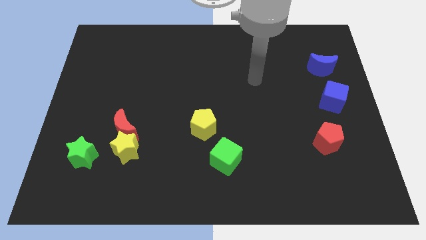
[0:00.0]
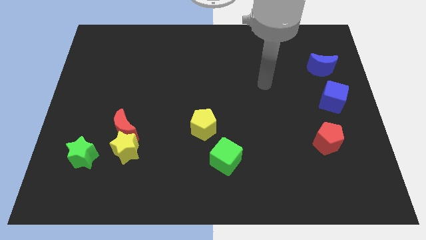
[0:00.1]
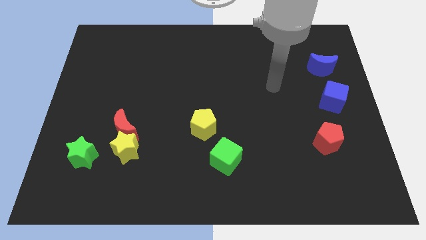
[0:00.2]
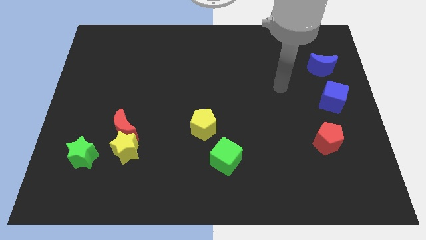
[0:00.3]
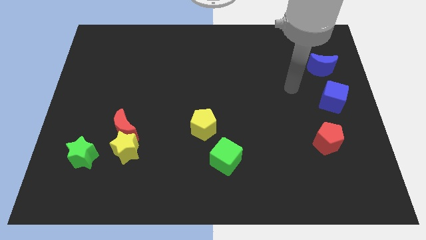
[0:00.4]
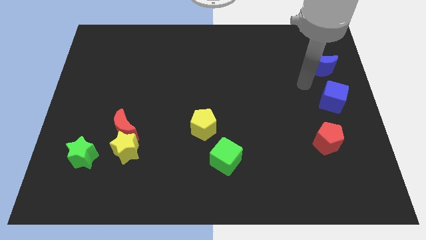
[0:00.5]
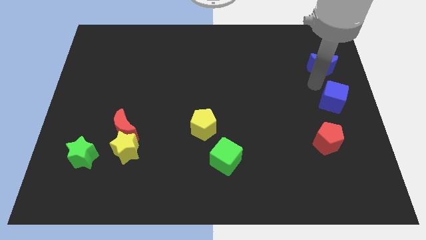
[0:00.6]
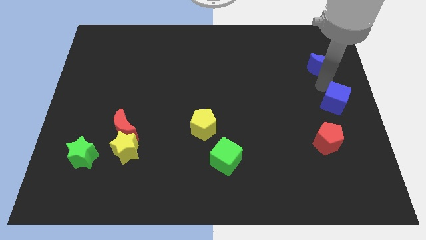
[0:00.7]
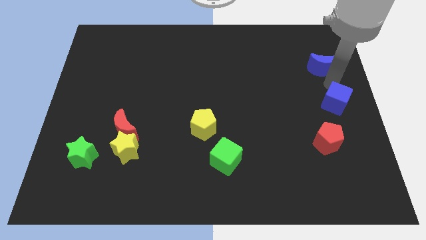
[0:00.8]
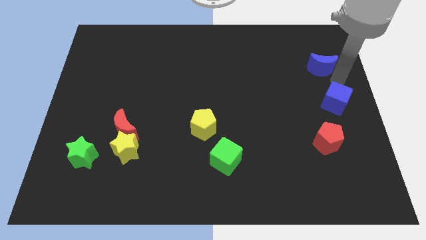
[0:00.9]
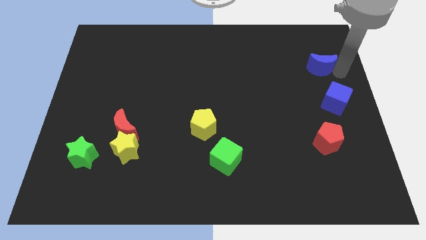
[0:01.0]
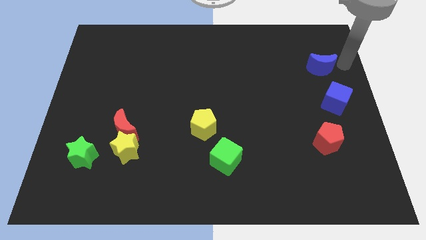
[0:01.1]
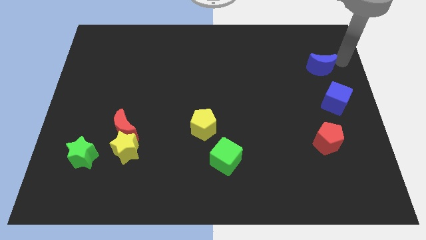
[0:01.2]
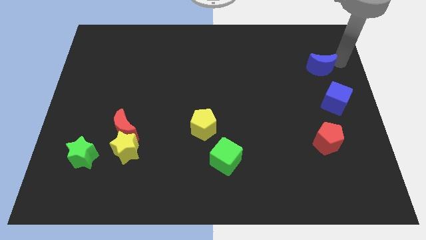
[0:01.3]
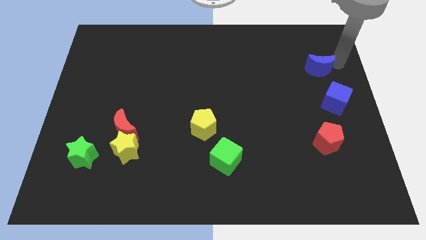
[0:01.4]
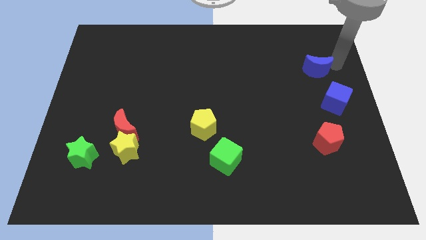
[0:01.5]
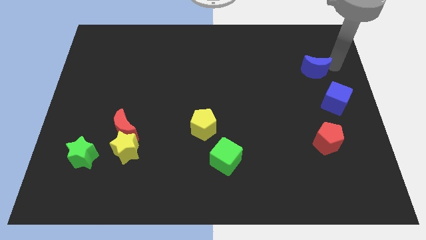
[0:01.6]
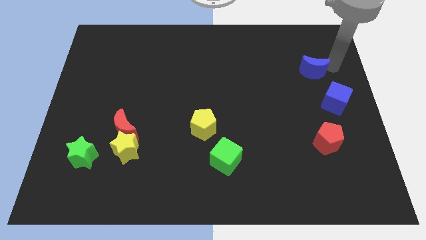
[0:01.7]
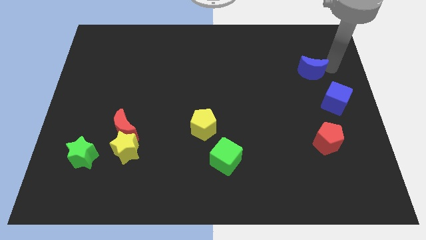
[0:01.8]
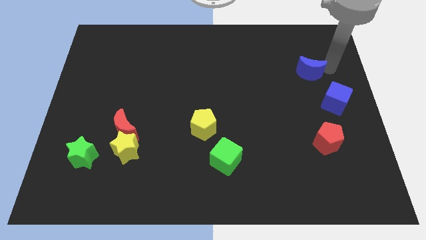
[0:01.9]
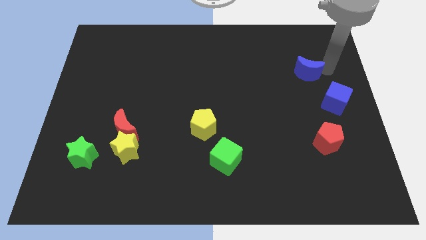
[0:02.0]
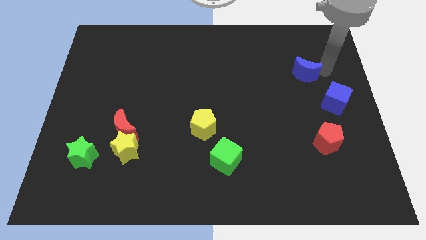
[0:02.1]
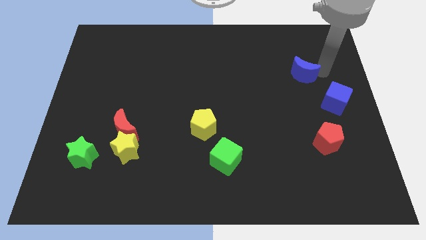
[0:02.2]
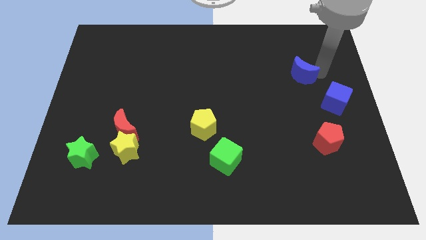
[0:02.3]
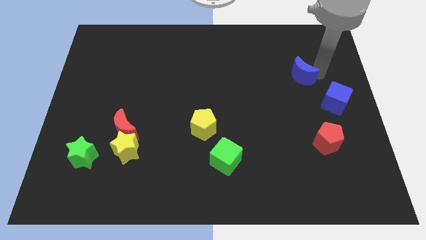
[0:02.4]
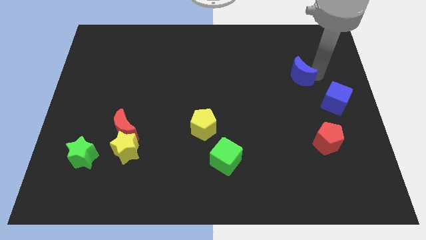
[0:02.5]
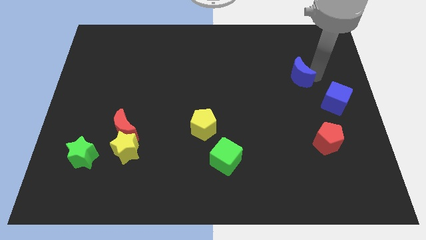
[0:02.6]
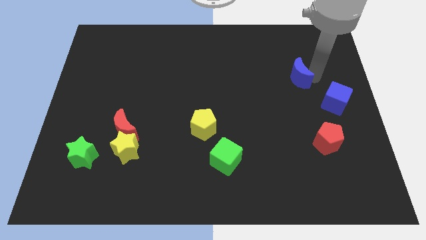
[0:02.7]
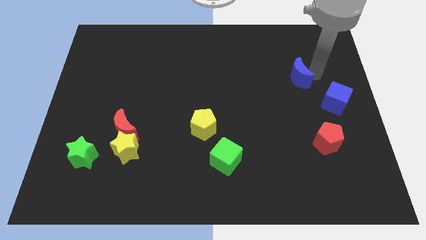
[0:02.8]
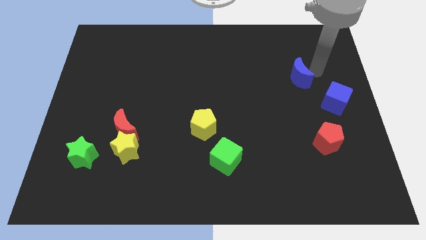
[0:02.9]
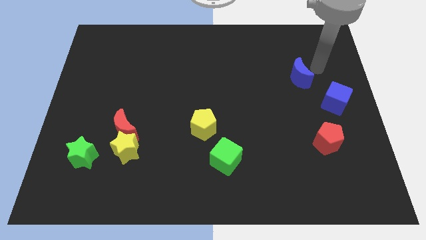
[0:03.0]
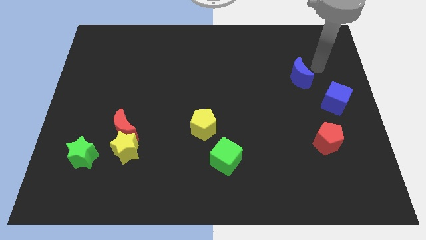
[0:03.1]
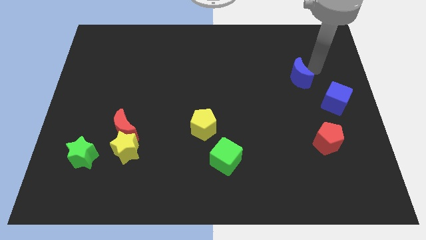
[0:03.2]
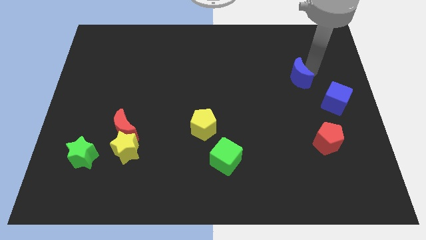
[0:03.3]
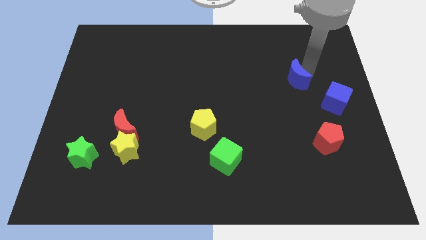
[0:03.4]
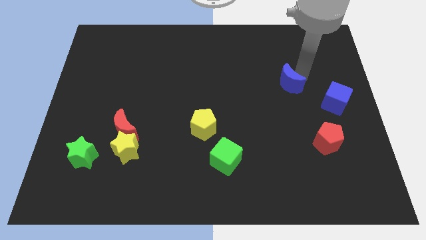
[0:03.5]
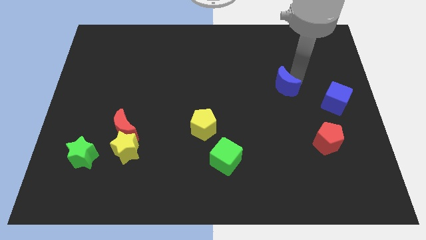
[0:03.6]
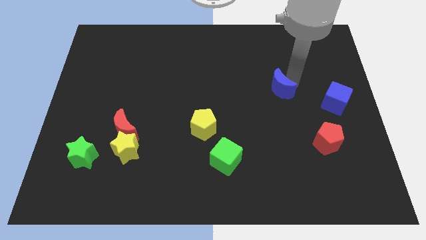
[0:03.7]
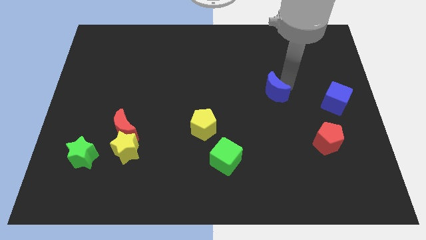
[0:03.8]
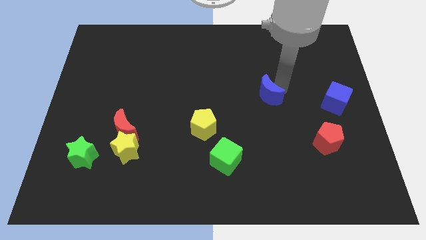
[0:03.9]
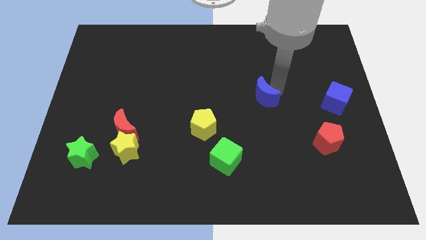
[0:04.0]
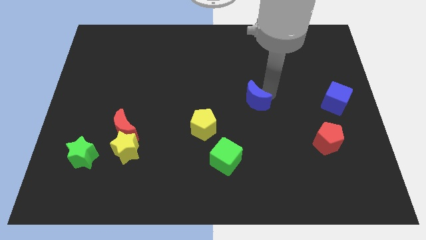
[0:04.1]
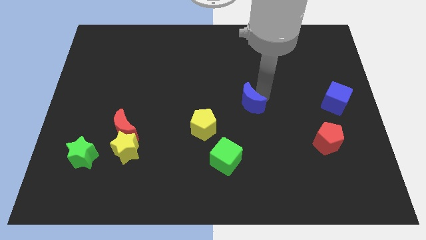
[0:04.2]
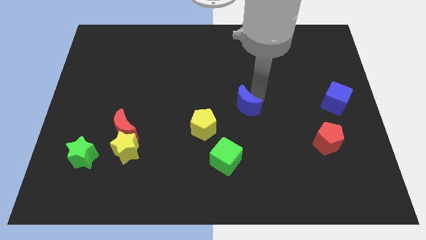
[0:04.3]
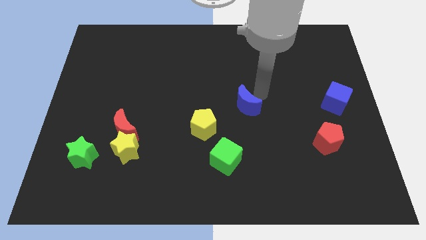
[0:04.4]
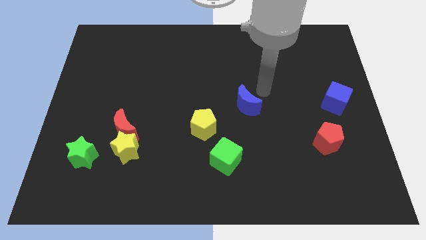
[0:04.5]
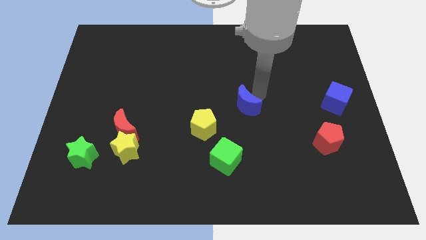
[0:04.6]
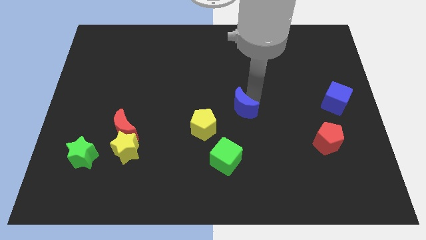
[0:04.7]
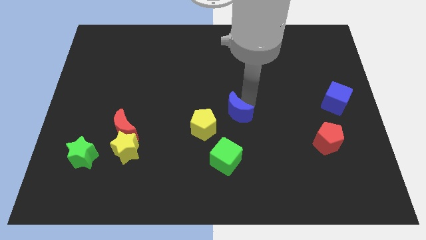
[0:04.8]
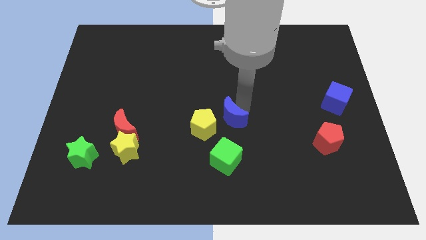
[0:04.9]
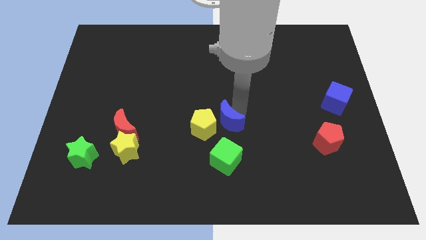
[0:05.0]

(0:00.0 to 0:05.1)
move the blue moon next to the yellow pentagon

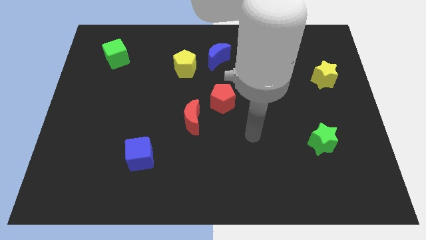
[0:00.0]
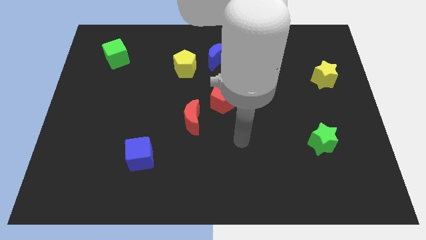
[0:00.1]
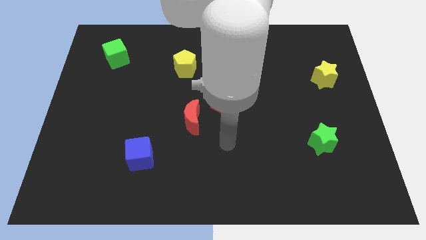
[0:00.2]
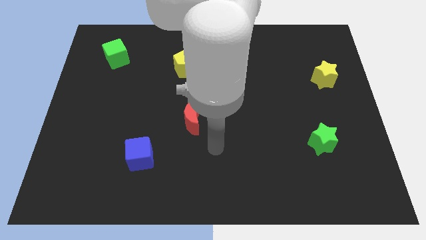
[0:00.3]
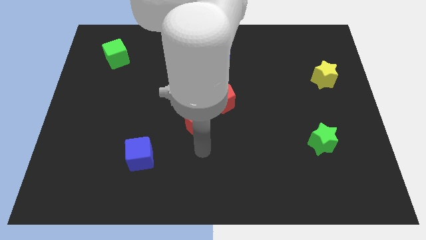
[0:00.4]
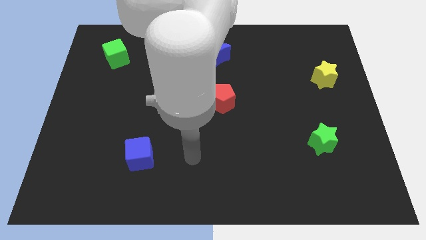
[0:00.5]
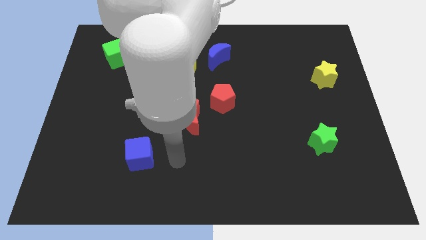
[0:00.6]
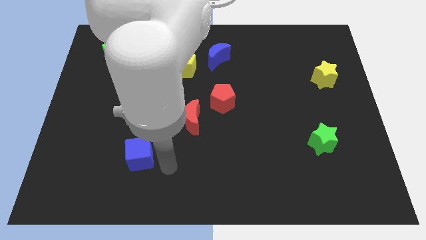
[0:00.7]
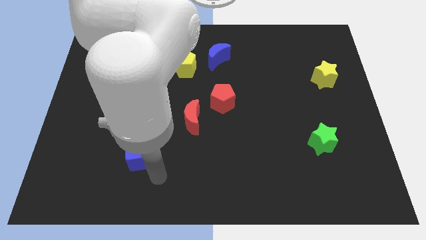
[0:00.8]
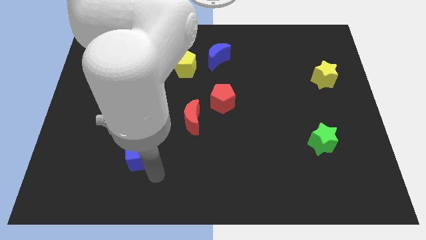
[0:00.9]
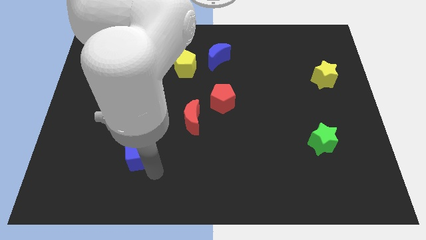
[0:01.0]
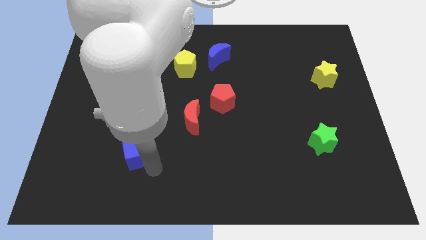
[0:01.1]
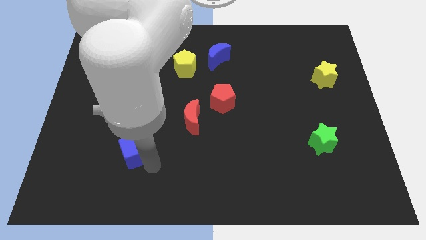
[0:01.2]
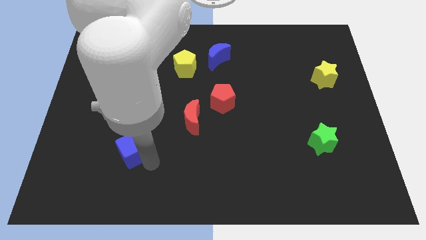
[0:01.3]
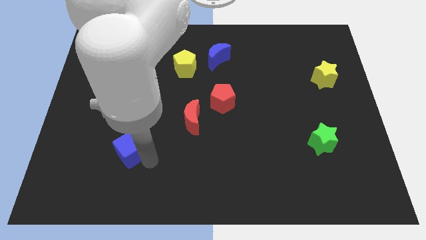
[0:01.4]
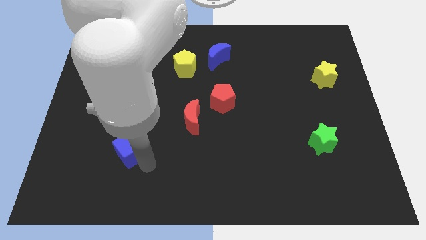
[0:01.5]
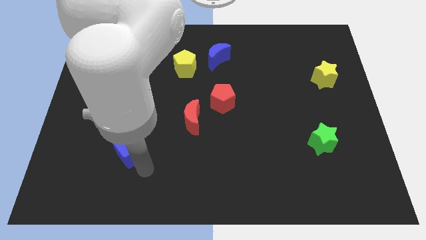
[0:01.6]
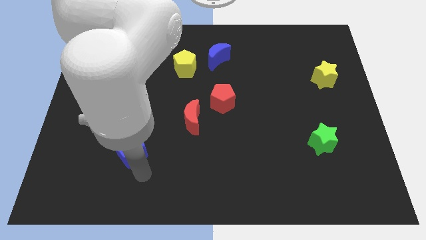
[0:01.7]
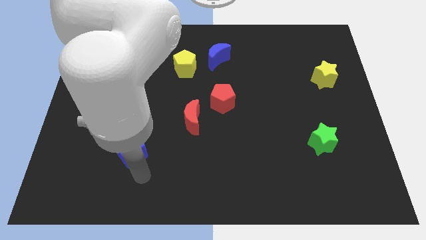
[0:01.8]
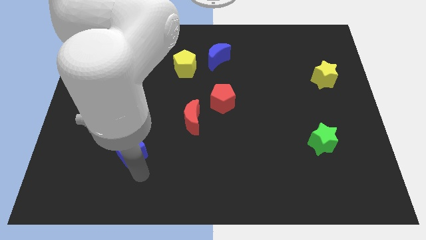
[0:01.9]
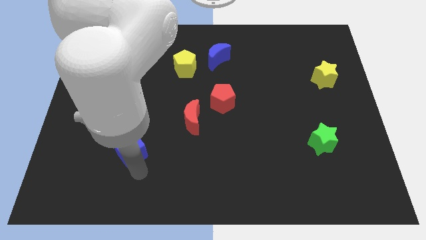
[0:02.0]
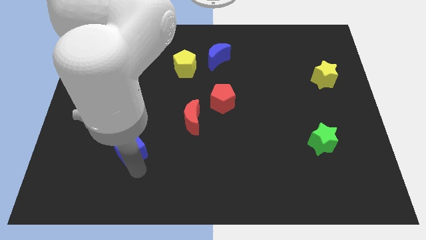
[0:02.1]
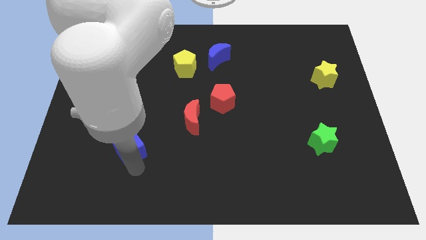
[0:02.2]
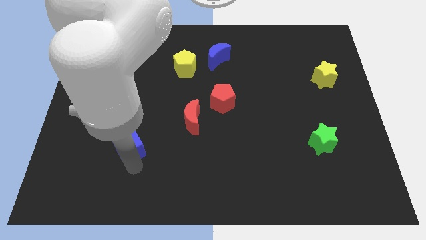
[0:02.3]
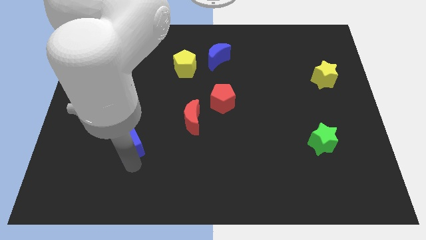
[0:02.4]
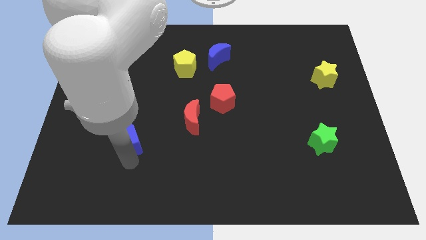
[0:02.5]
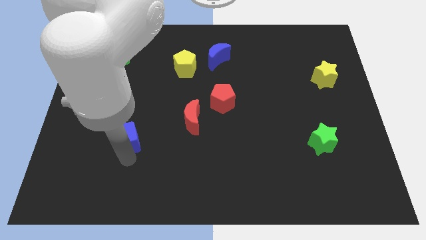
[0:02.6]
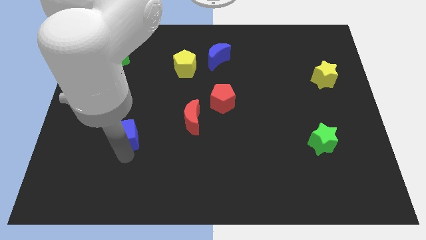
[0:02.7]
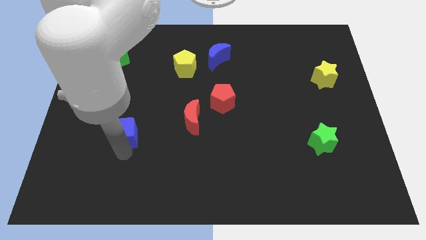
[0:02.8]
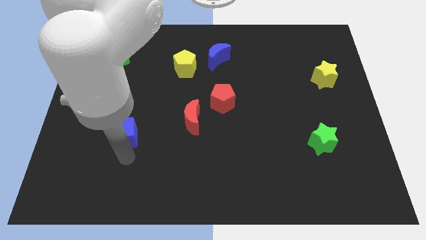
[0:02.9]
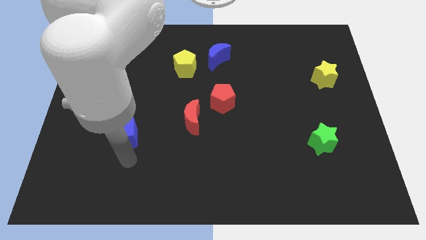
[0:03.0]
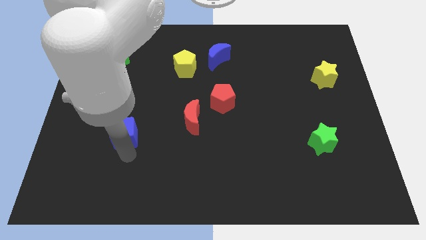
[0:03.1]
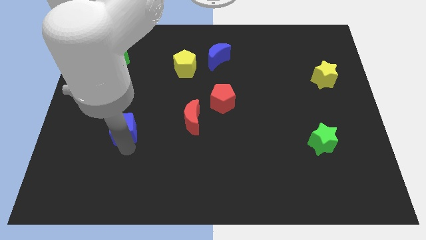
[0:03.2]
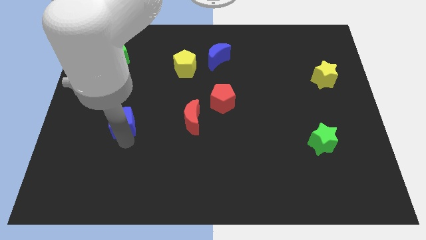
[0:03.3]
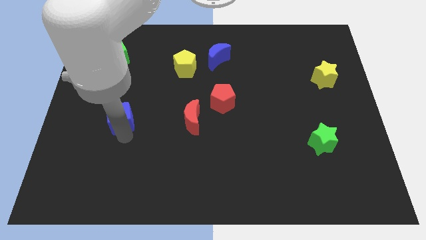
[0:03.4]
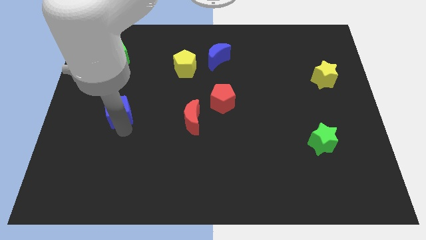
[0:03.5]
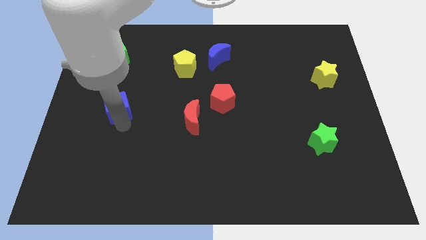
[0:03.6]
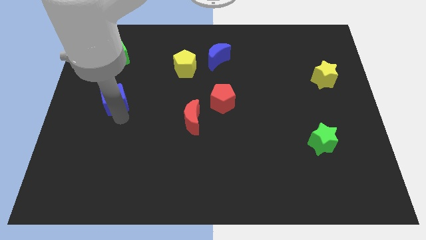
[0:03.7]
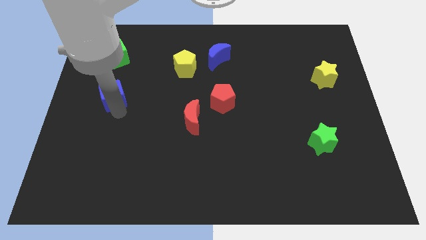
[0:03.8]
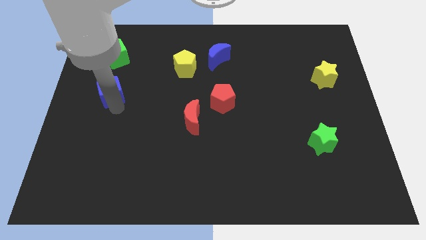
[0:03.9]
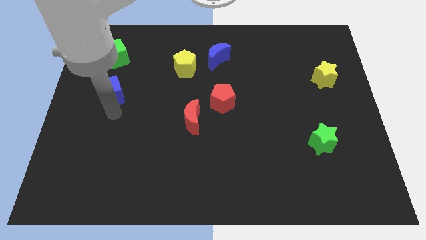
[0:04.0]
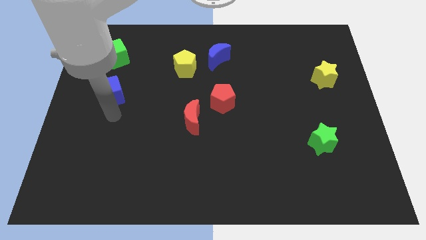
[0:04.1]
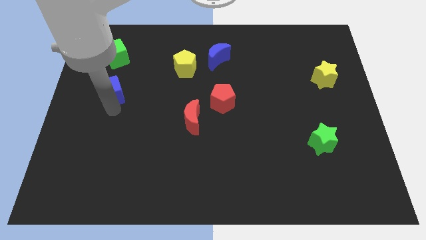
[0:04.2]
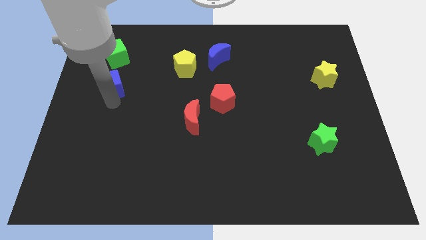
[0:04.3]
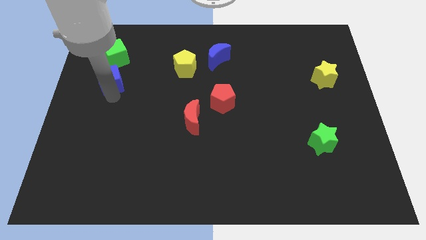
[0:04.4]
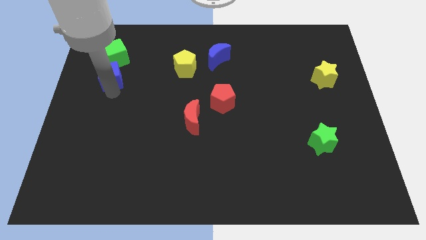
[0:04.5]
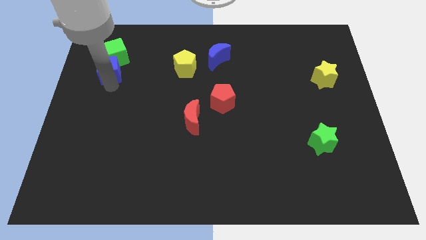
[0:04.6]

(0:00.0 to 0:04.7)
push the blue cube to the green cube
